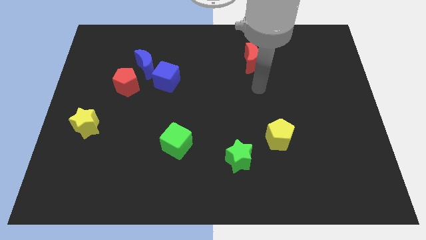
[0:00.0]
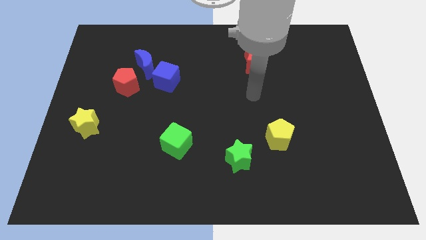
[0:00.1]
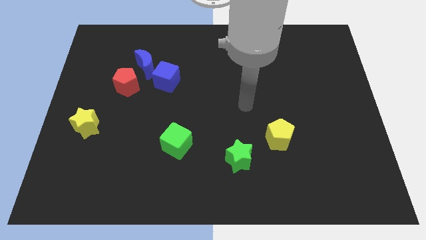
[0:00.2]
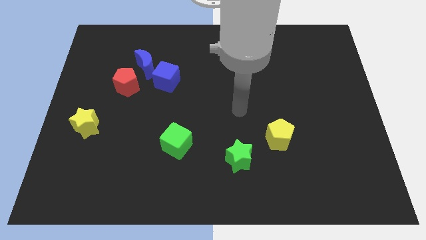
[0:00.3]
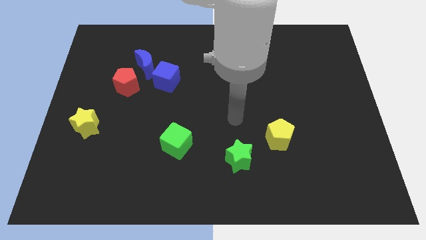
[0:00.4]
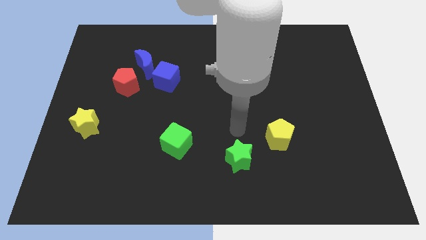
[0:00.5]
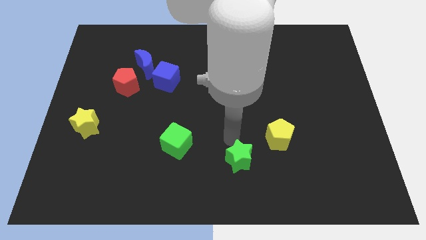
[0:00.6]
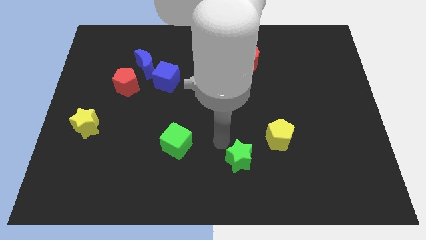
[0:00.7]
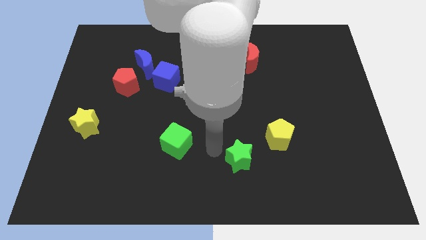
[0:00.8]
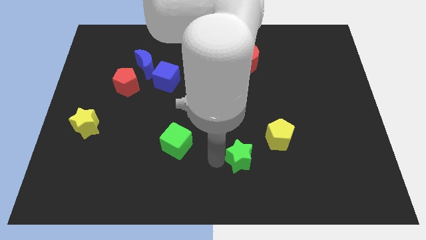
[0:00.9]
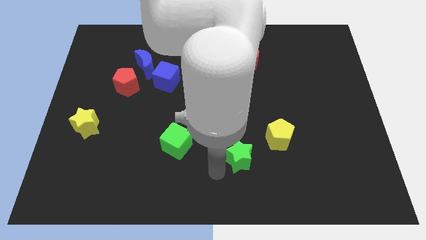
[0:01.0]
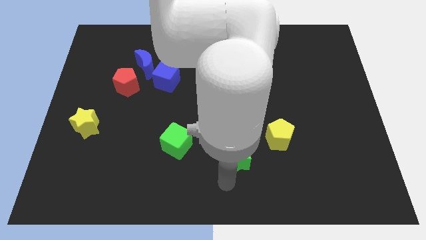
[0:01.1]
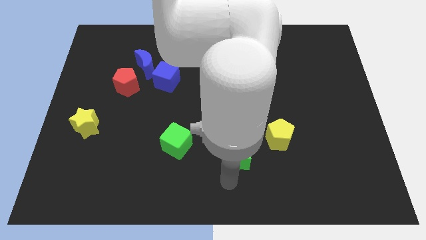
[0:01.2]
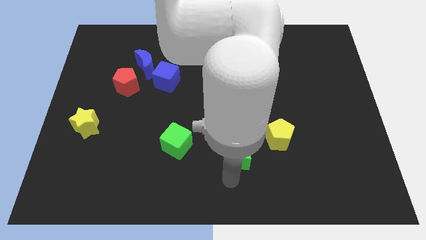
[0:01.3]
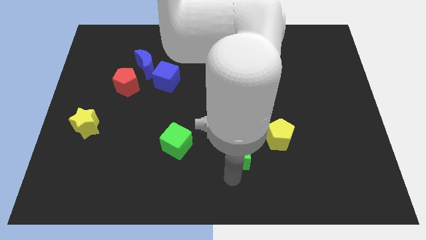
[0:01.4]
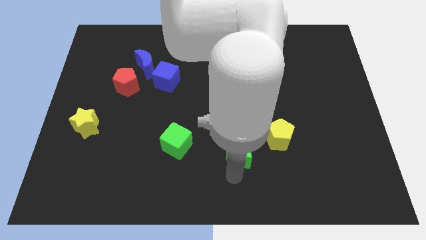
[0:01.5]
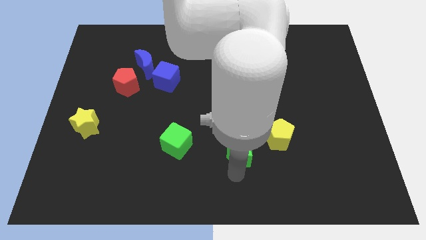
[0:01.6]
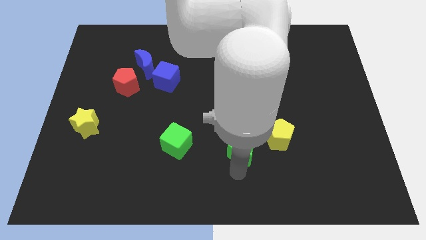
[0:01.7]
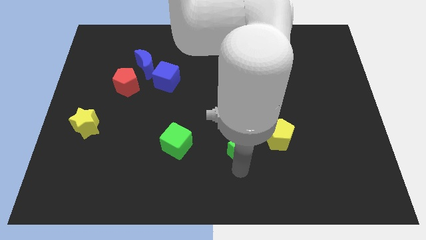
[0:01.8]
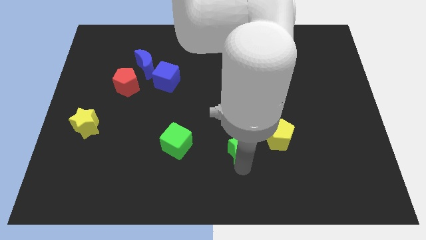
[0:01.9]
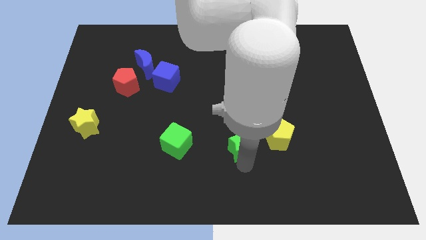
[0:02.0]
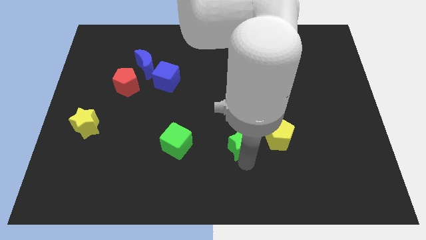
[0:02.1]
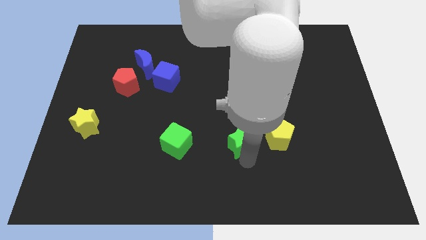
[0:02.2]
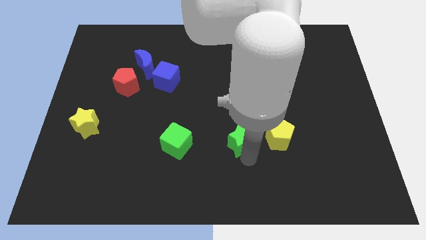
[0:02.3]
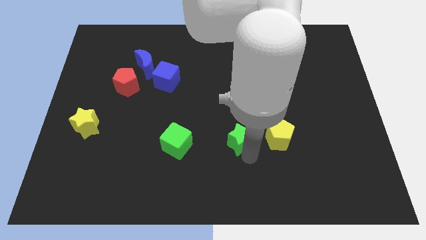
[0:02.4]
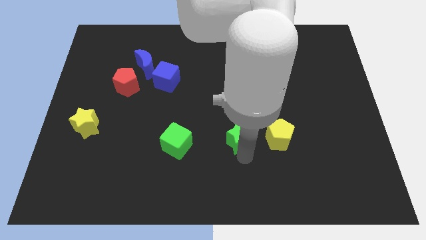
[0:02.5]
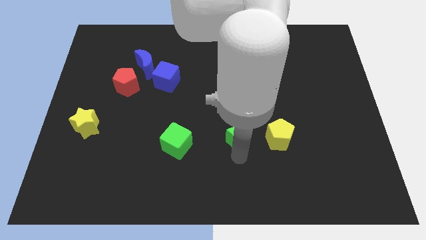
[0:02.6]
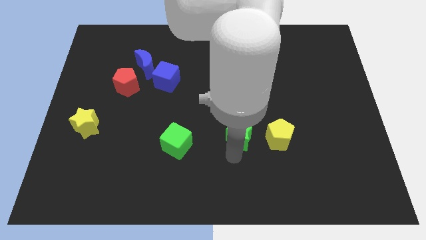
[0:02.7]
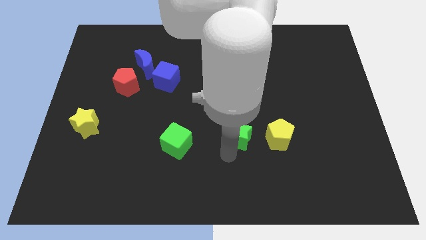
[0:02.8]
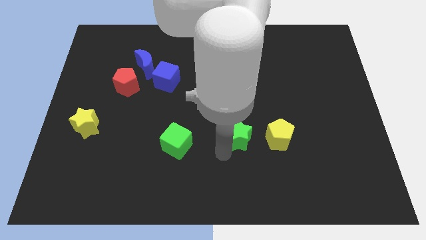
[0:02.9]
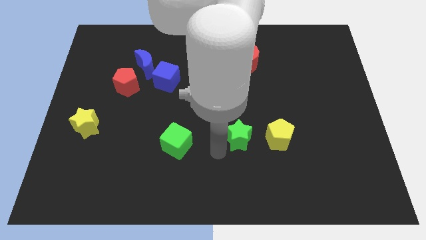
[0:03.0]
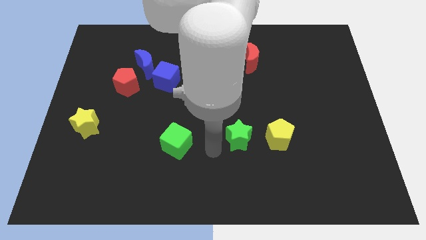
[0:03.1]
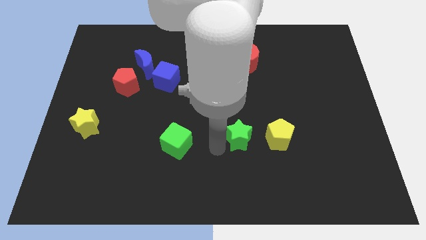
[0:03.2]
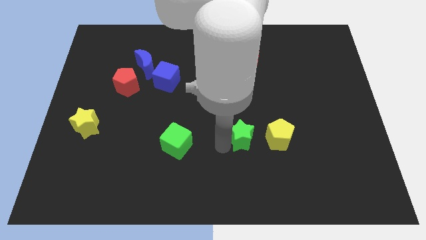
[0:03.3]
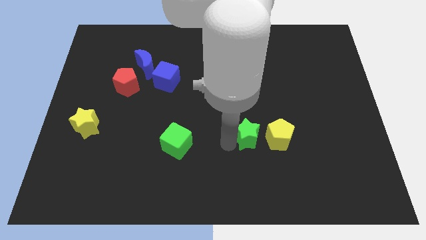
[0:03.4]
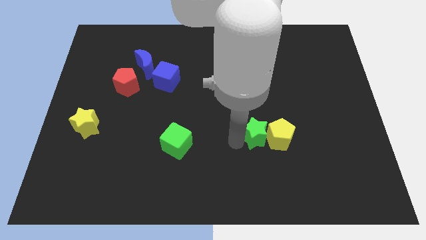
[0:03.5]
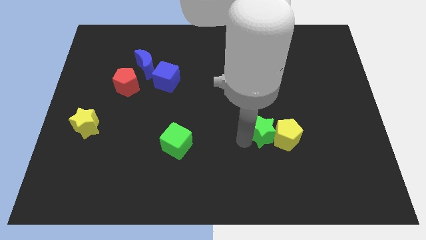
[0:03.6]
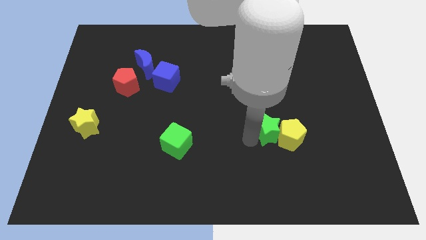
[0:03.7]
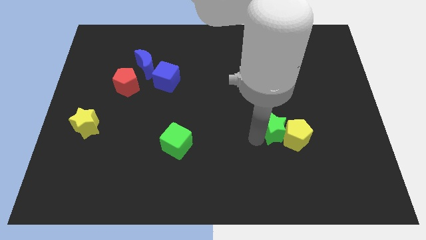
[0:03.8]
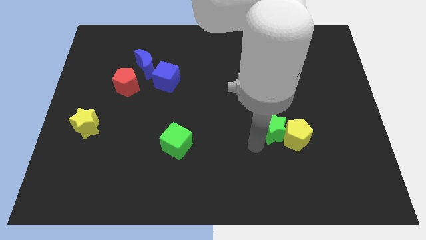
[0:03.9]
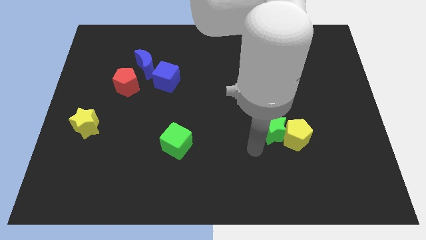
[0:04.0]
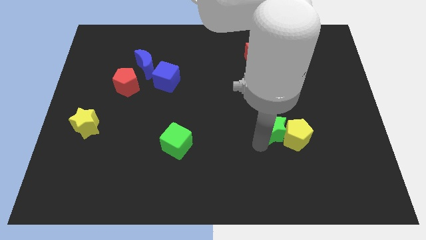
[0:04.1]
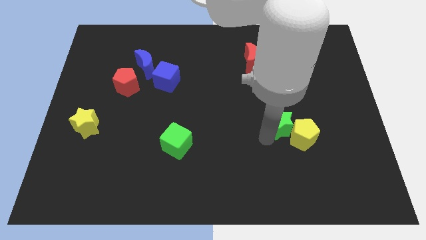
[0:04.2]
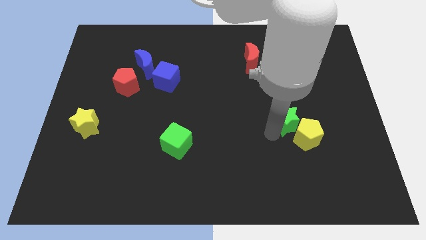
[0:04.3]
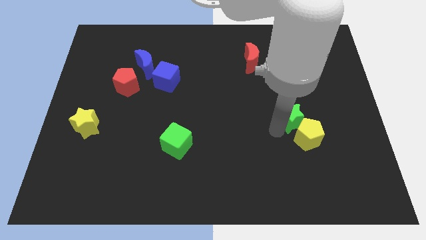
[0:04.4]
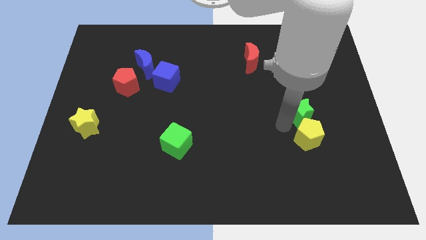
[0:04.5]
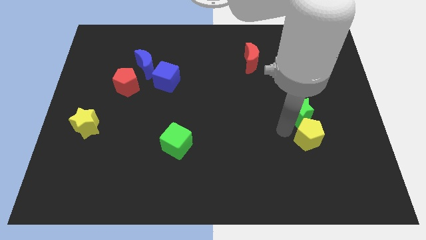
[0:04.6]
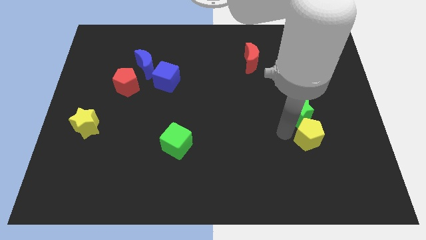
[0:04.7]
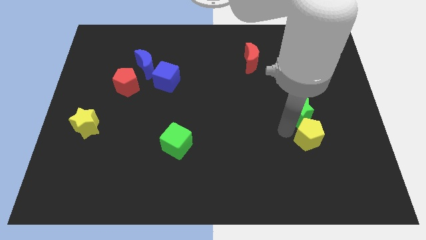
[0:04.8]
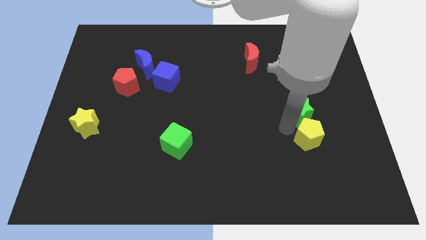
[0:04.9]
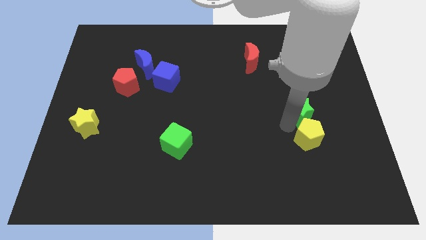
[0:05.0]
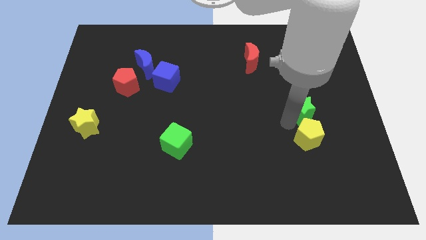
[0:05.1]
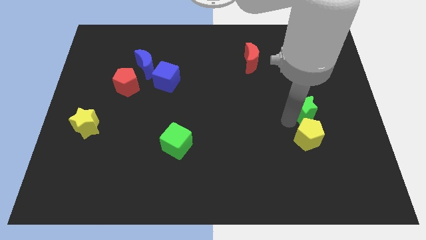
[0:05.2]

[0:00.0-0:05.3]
push the green star upwards and right diagonally

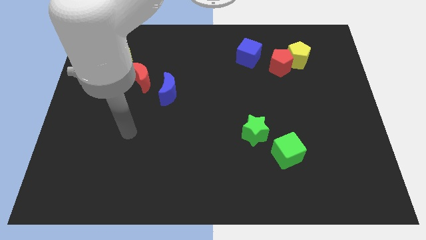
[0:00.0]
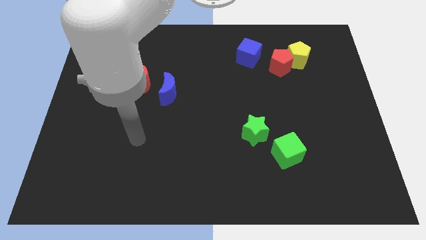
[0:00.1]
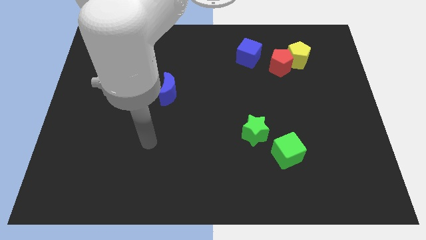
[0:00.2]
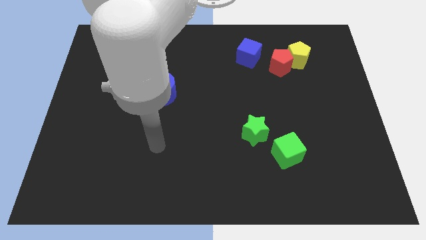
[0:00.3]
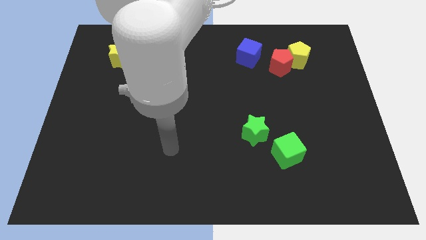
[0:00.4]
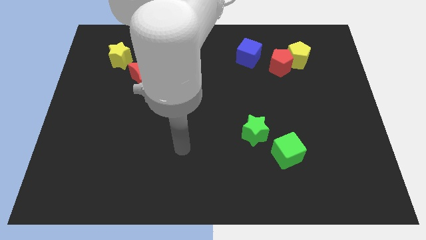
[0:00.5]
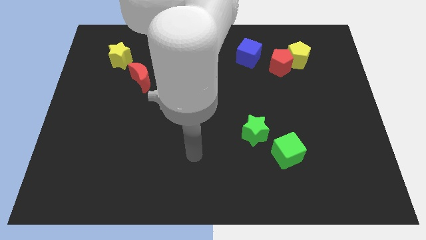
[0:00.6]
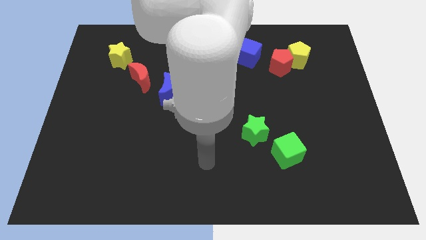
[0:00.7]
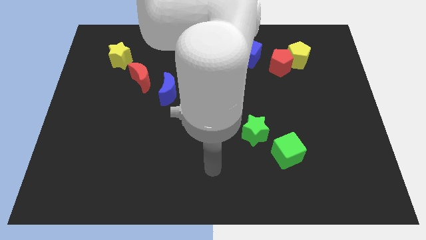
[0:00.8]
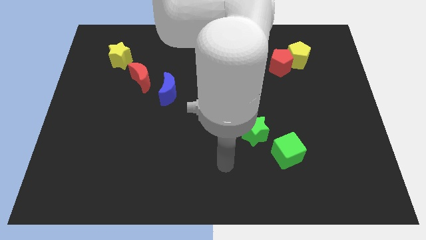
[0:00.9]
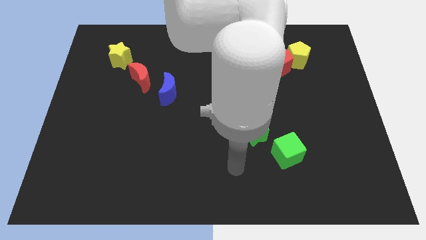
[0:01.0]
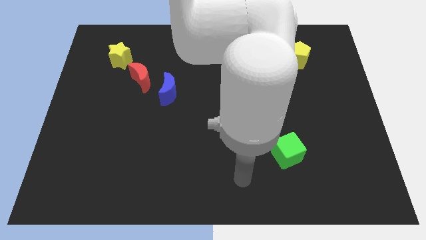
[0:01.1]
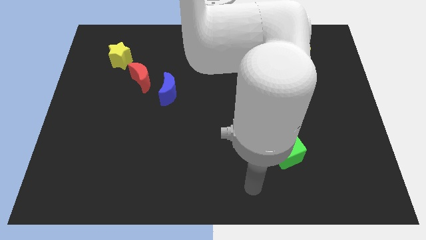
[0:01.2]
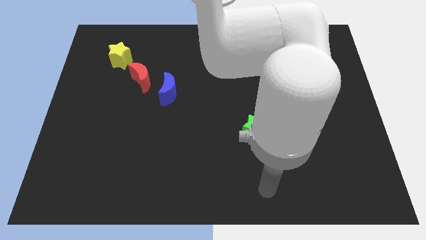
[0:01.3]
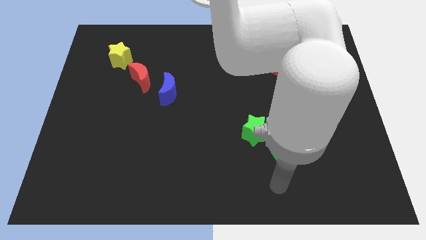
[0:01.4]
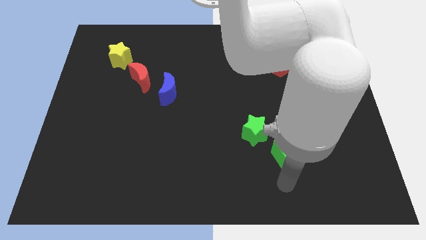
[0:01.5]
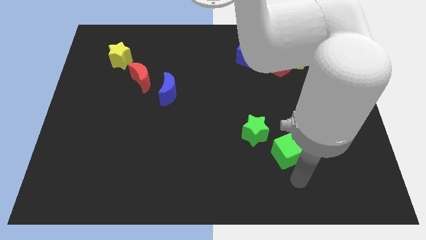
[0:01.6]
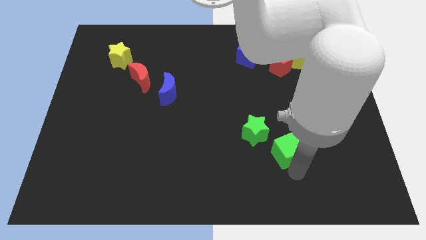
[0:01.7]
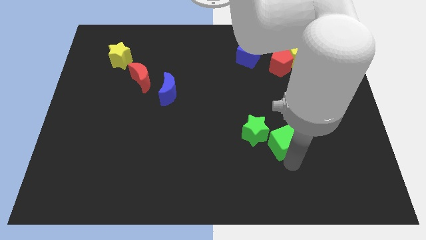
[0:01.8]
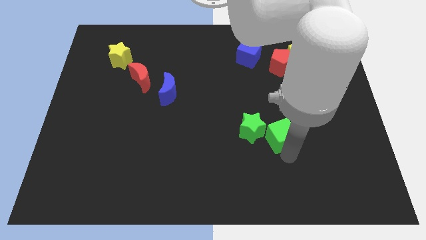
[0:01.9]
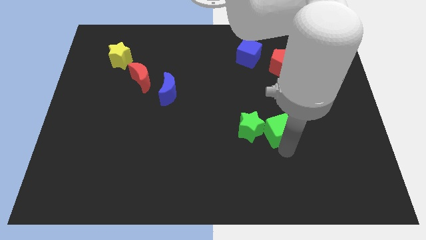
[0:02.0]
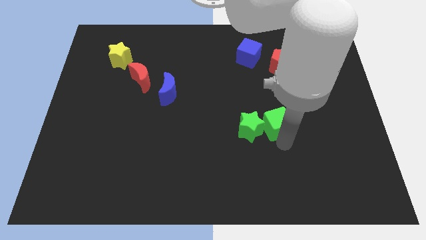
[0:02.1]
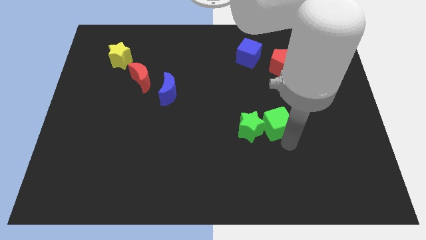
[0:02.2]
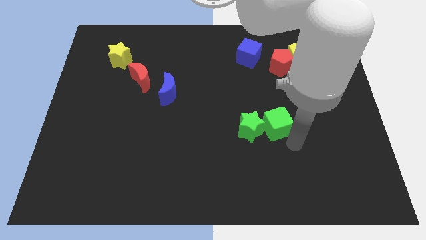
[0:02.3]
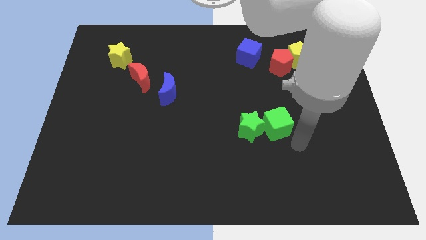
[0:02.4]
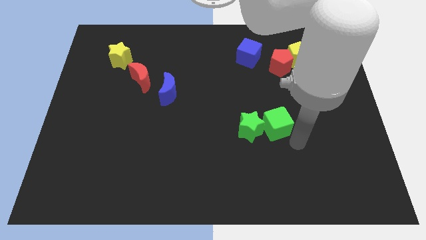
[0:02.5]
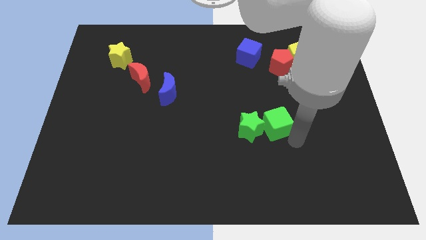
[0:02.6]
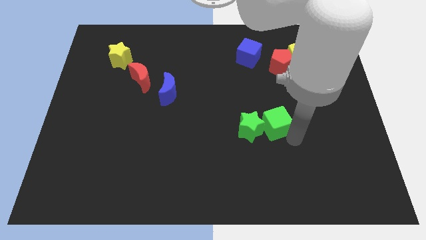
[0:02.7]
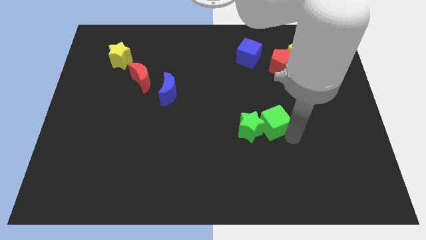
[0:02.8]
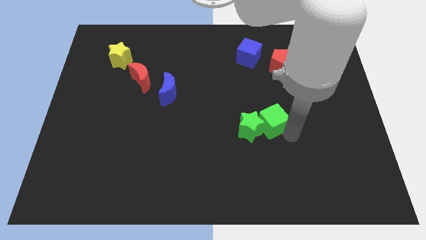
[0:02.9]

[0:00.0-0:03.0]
slide the green cube up and left diagonally somewhat

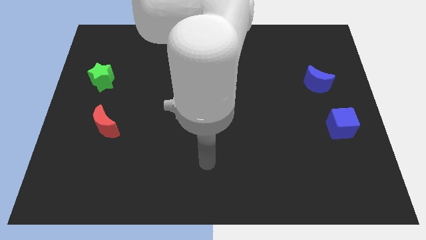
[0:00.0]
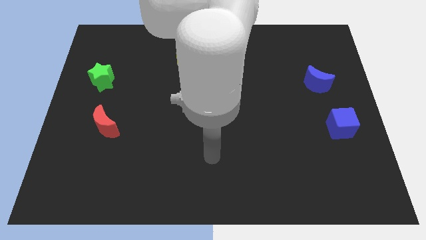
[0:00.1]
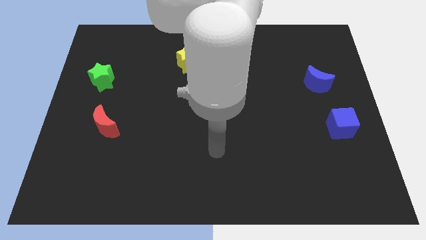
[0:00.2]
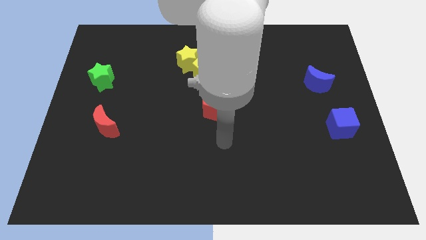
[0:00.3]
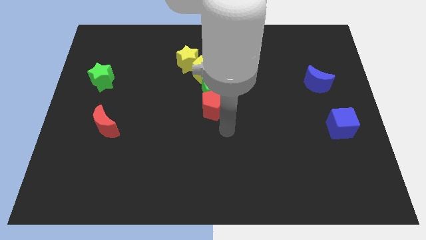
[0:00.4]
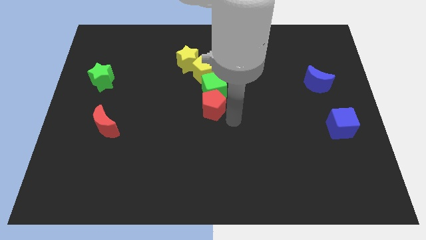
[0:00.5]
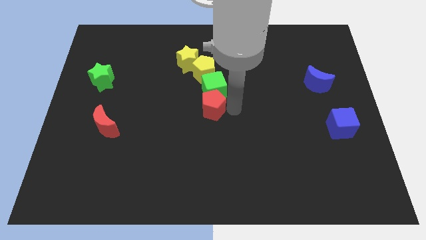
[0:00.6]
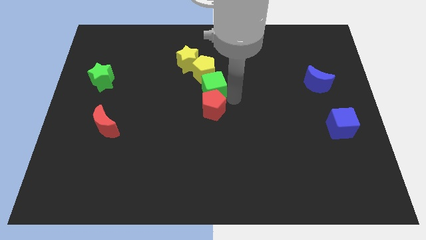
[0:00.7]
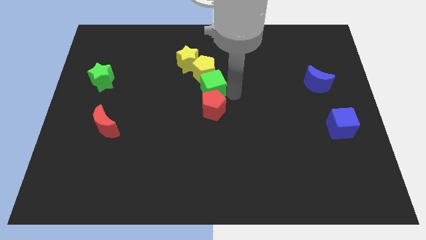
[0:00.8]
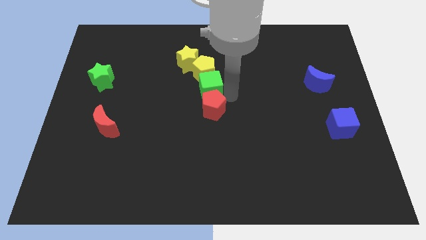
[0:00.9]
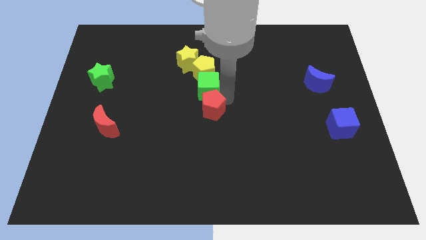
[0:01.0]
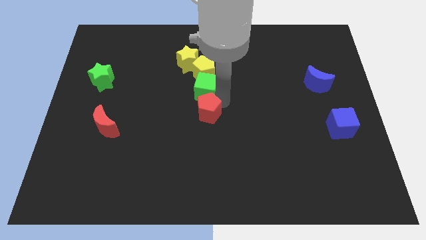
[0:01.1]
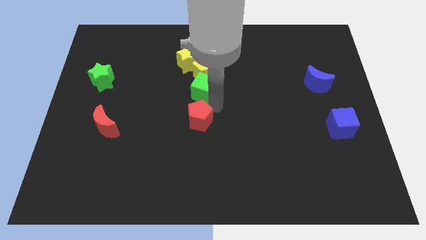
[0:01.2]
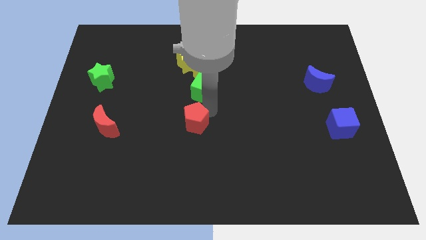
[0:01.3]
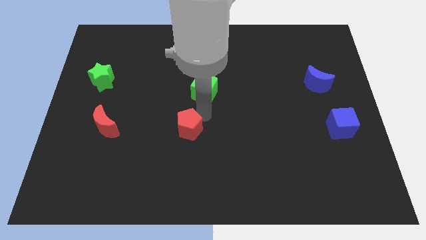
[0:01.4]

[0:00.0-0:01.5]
slightly push the red pentagon downwards and to the left
